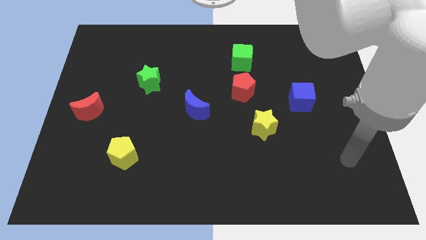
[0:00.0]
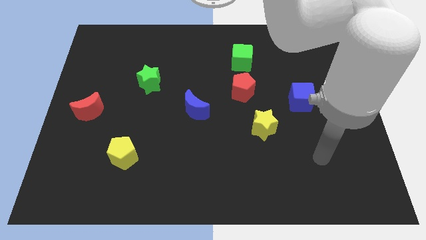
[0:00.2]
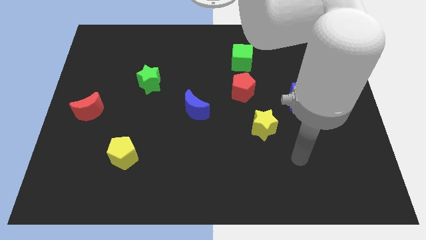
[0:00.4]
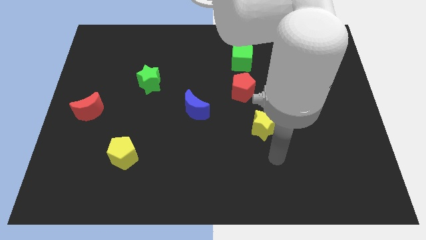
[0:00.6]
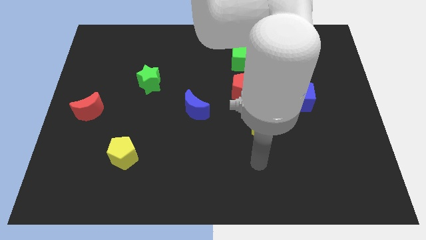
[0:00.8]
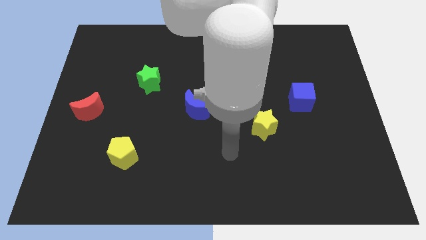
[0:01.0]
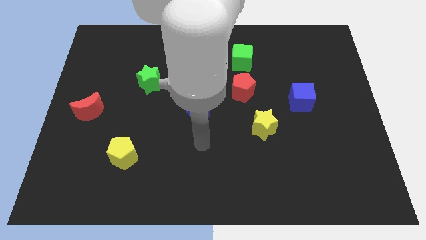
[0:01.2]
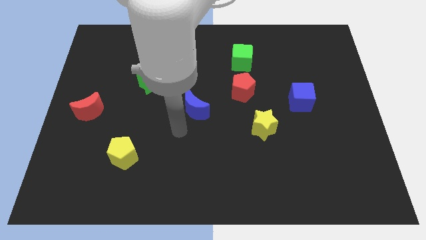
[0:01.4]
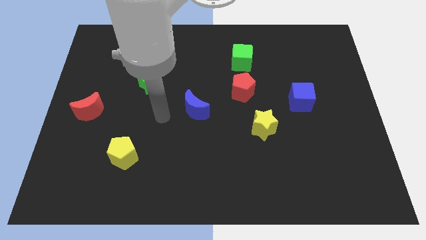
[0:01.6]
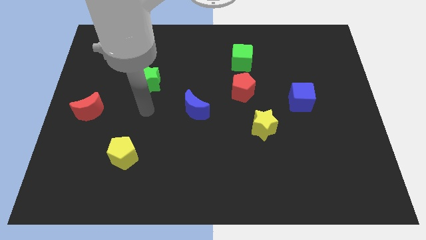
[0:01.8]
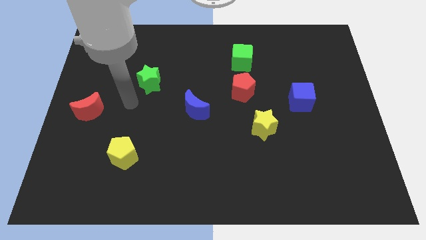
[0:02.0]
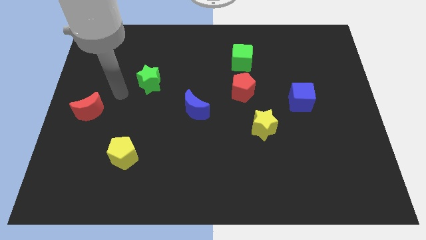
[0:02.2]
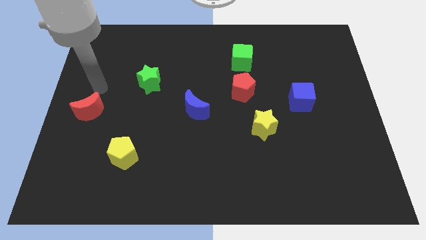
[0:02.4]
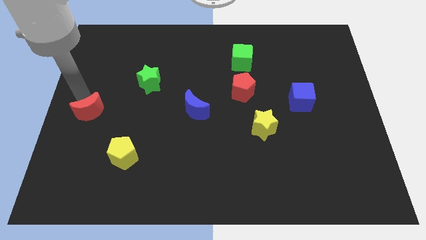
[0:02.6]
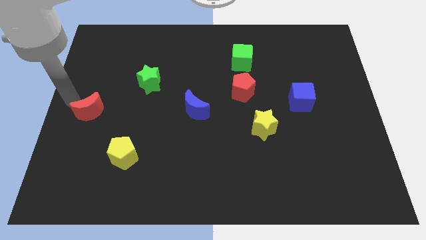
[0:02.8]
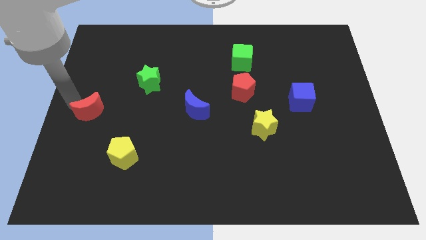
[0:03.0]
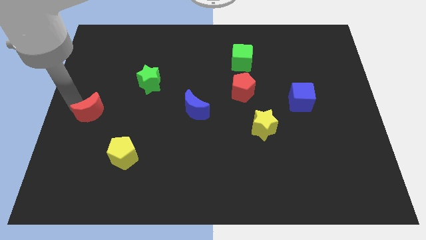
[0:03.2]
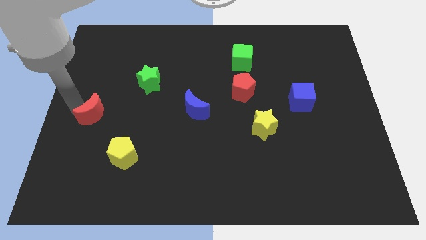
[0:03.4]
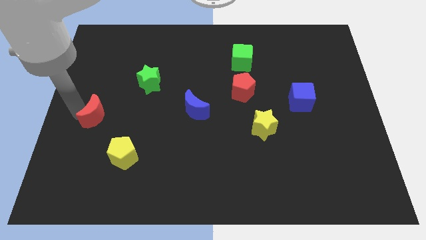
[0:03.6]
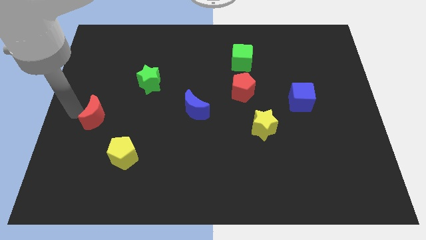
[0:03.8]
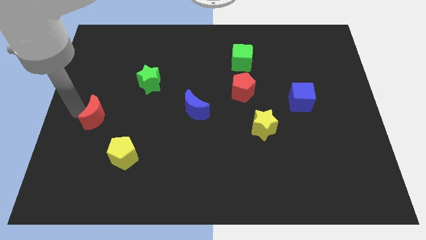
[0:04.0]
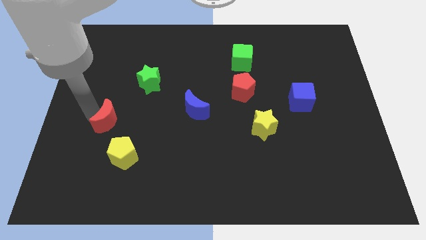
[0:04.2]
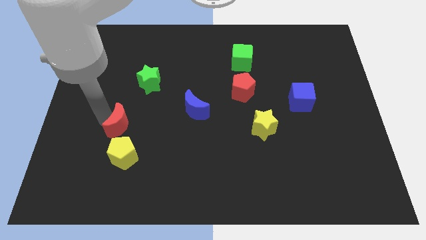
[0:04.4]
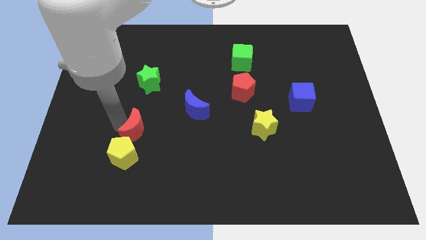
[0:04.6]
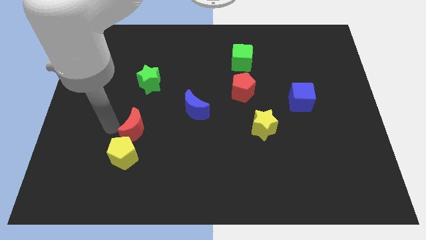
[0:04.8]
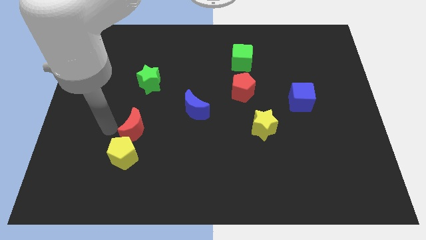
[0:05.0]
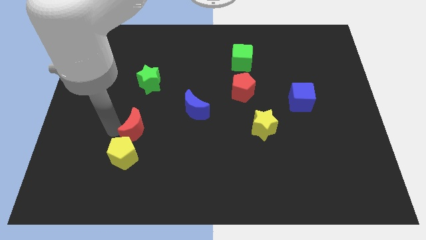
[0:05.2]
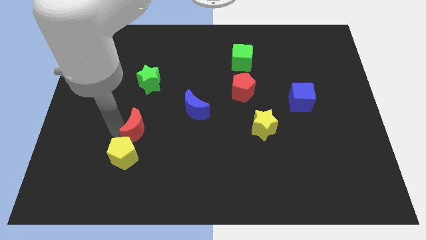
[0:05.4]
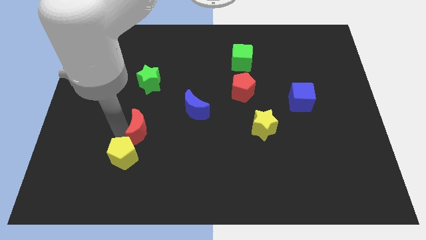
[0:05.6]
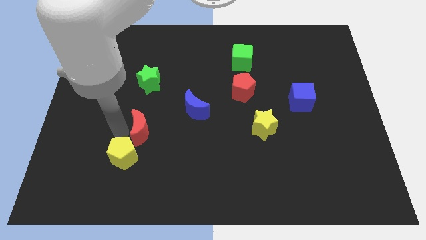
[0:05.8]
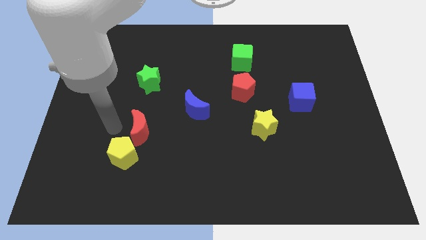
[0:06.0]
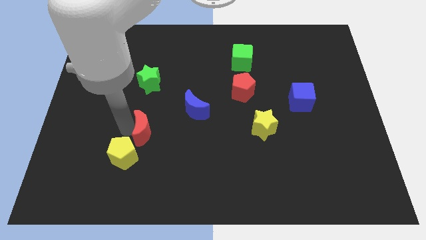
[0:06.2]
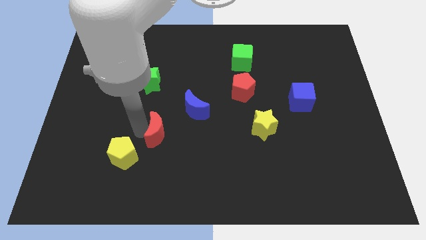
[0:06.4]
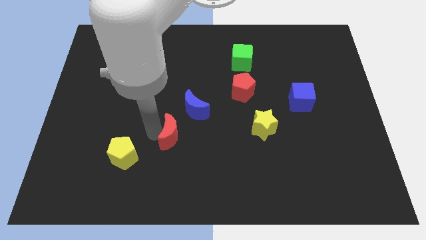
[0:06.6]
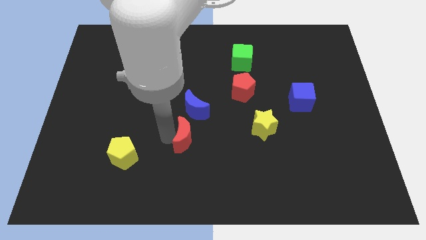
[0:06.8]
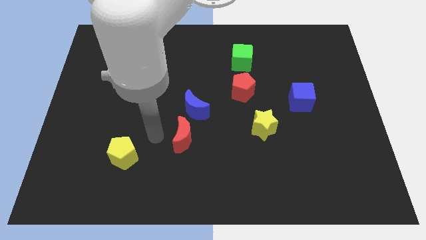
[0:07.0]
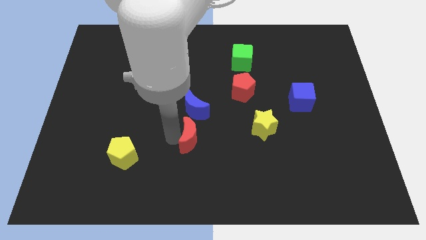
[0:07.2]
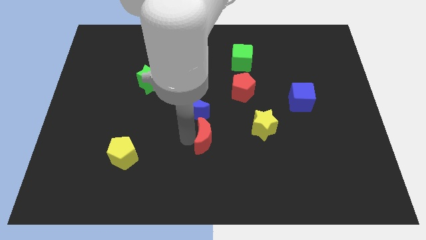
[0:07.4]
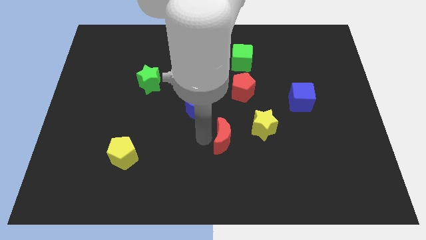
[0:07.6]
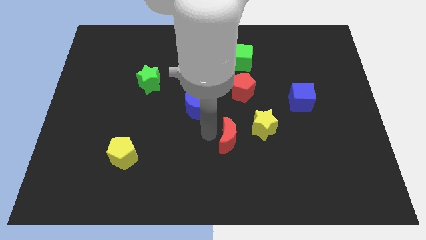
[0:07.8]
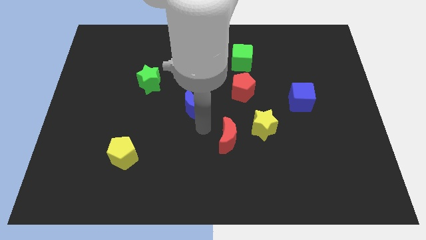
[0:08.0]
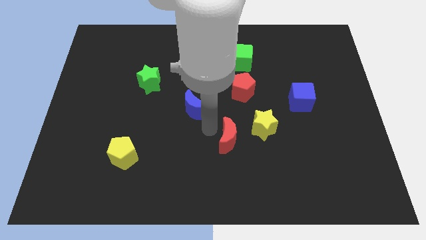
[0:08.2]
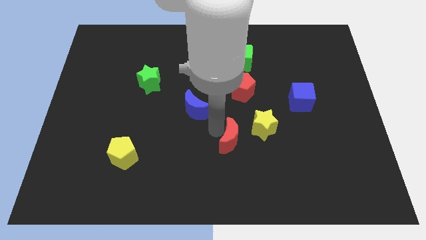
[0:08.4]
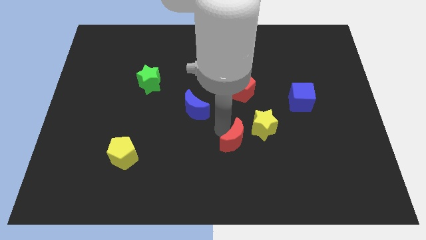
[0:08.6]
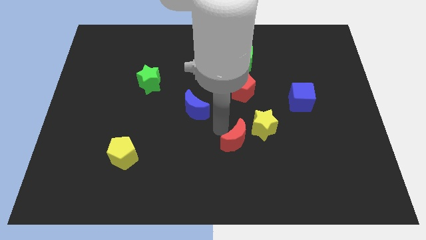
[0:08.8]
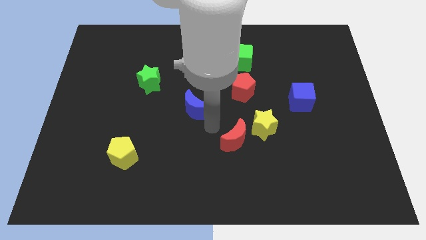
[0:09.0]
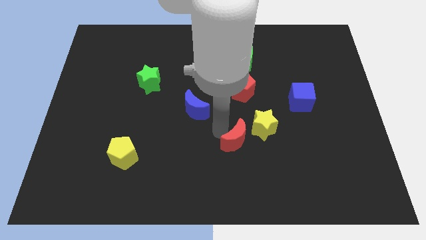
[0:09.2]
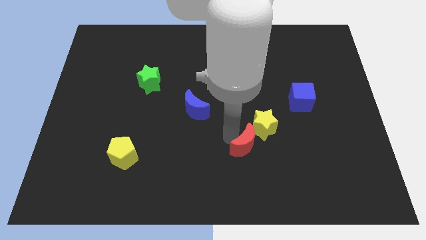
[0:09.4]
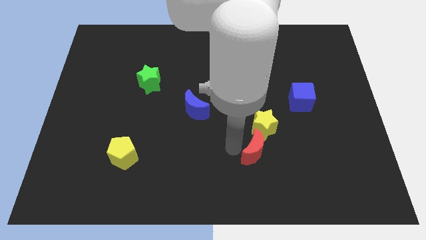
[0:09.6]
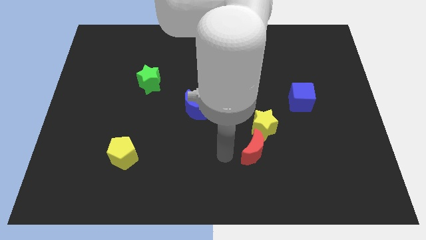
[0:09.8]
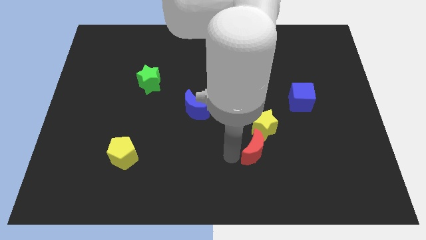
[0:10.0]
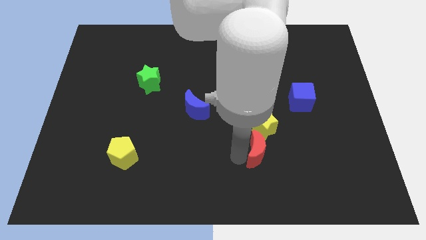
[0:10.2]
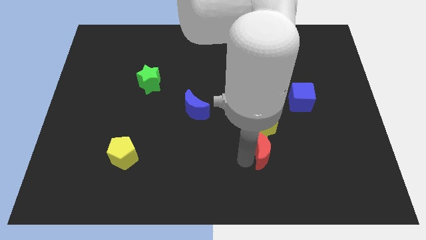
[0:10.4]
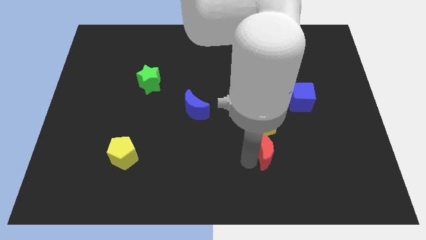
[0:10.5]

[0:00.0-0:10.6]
push the red moon diagonally down and to the right of the yellow star

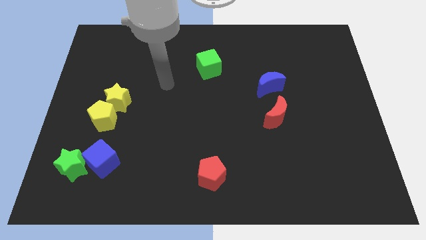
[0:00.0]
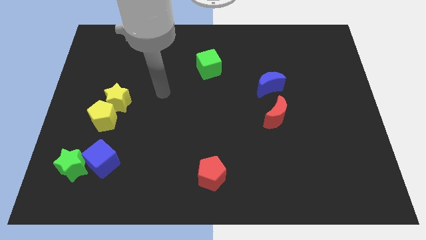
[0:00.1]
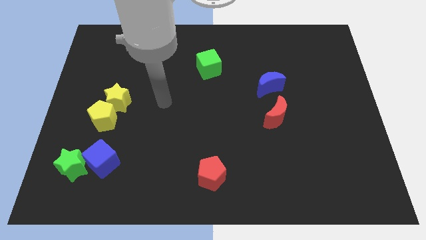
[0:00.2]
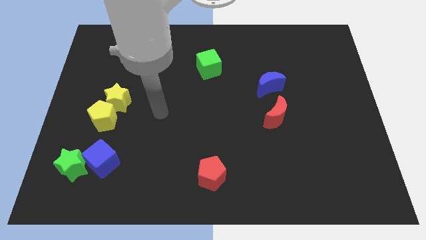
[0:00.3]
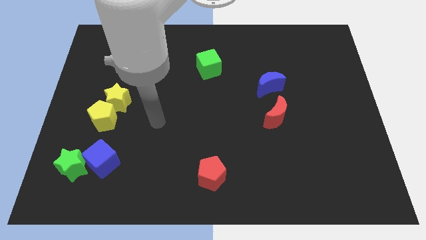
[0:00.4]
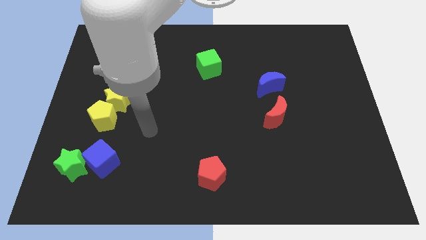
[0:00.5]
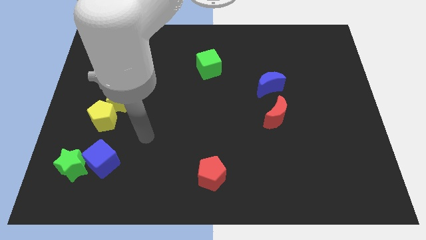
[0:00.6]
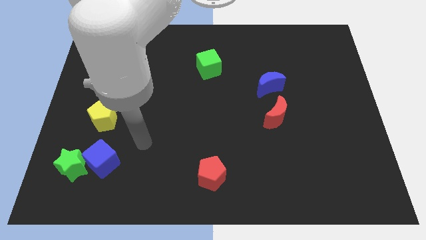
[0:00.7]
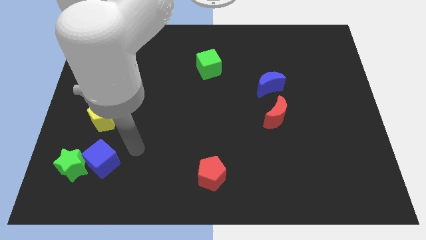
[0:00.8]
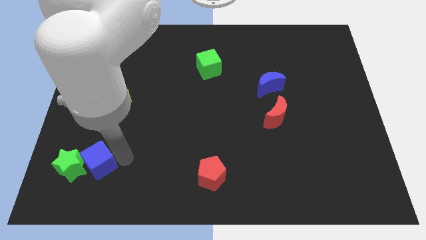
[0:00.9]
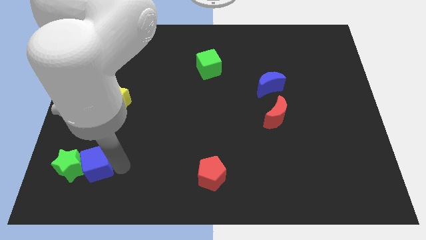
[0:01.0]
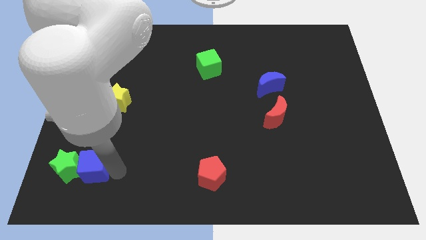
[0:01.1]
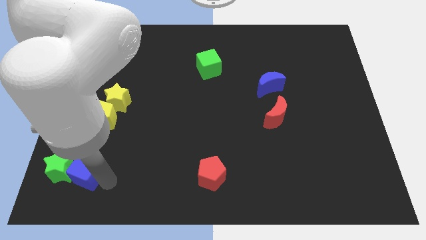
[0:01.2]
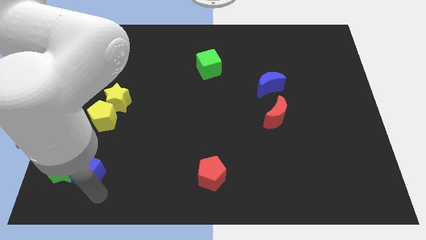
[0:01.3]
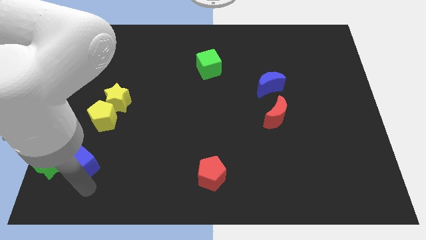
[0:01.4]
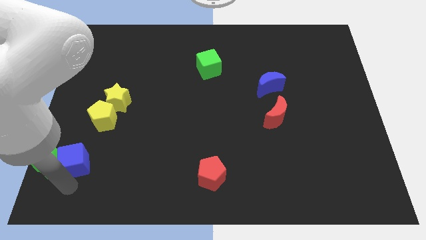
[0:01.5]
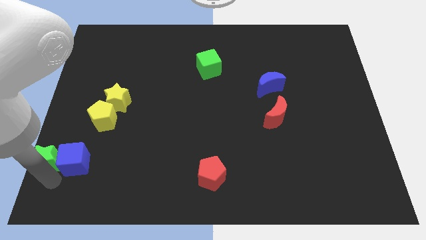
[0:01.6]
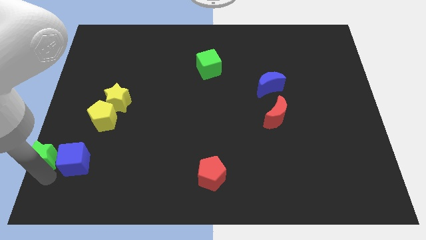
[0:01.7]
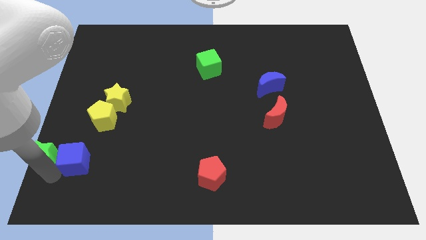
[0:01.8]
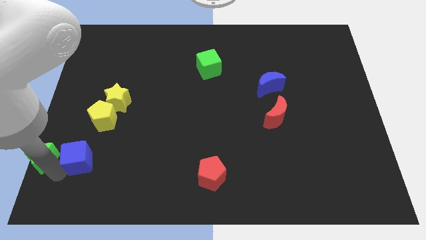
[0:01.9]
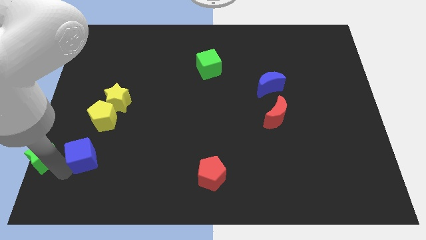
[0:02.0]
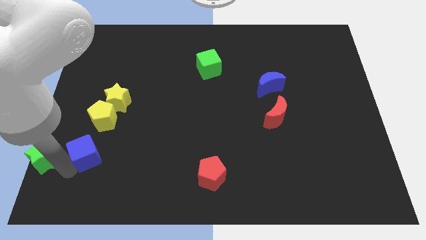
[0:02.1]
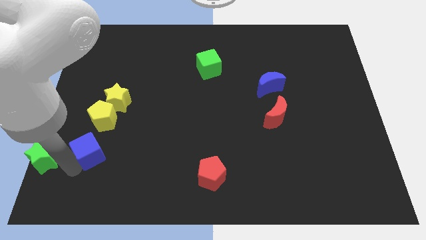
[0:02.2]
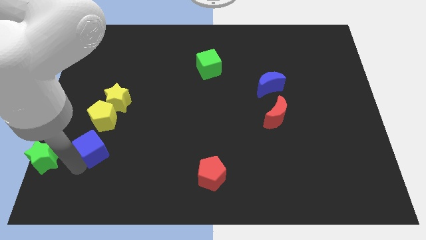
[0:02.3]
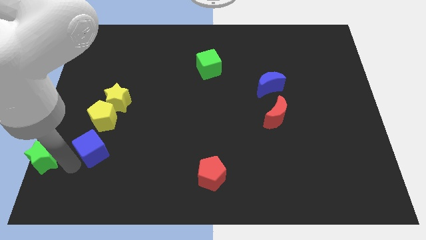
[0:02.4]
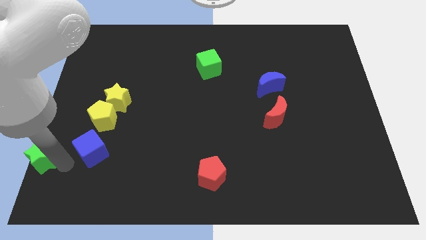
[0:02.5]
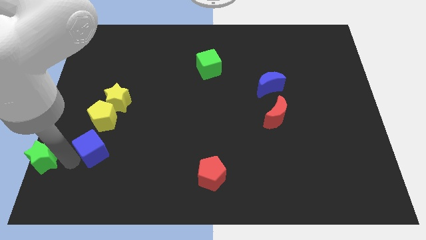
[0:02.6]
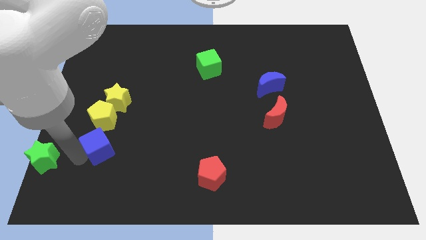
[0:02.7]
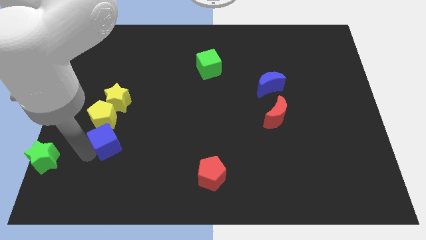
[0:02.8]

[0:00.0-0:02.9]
move the blue cube to the bottom right side of the yellow pentagon
